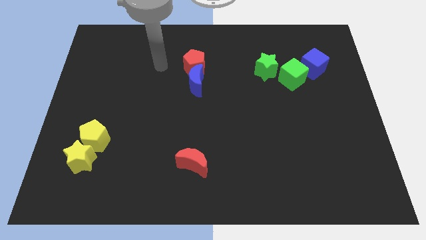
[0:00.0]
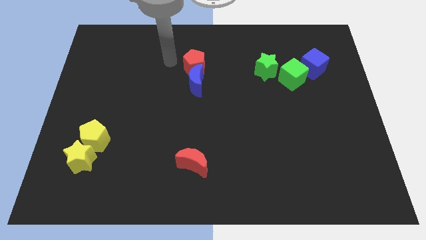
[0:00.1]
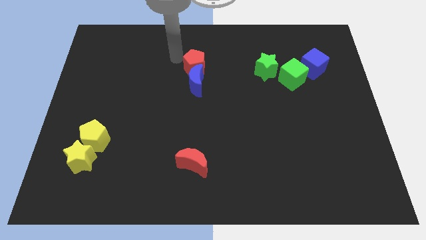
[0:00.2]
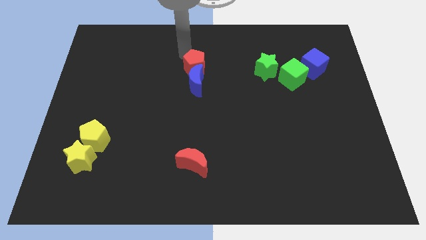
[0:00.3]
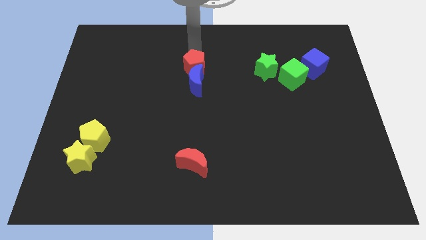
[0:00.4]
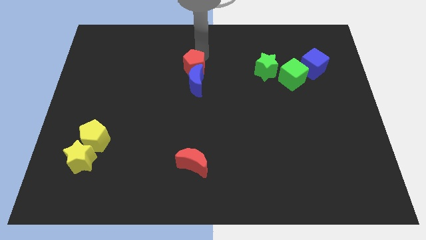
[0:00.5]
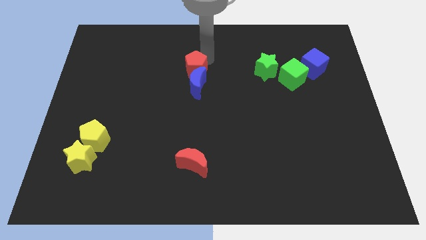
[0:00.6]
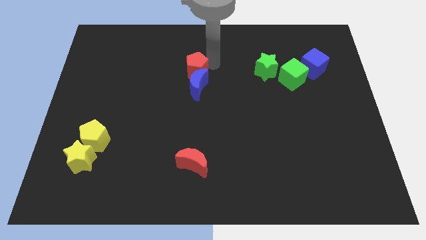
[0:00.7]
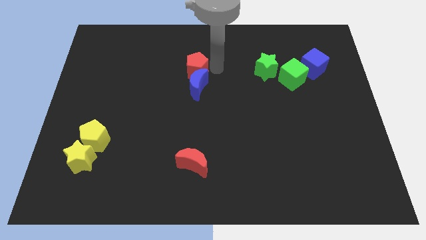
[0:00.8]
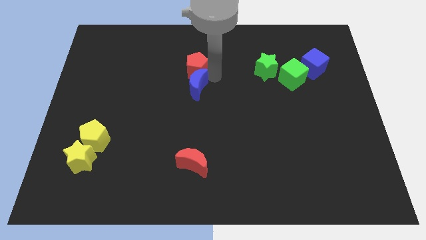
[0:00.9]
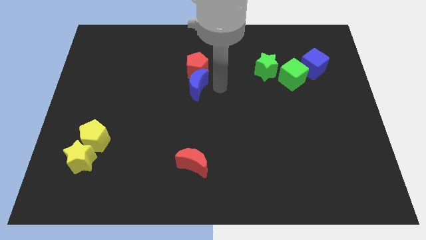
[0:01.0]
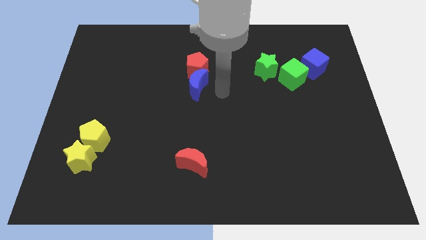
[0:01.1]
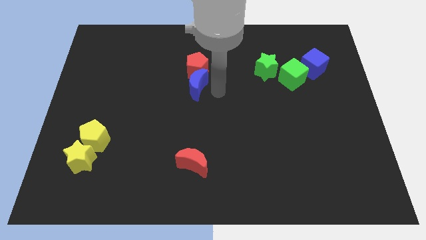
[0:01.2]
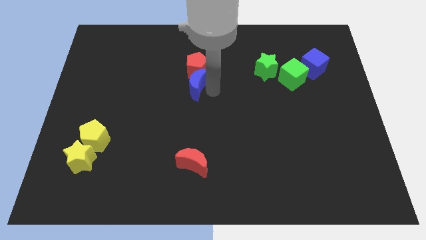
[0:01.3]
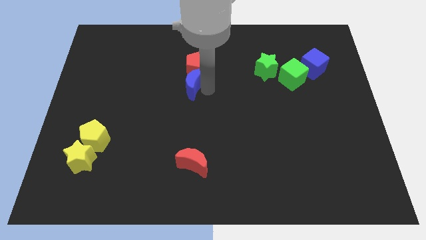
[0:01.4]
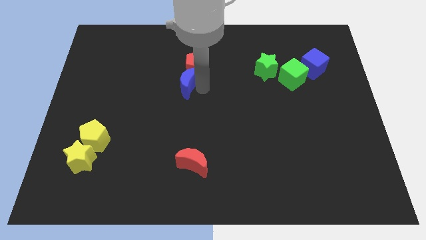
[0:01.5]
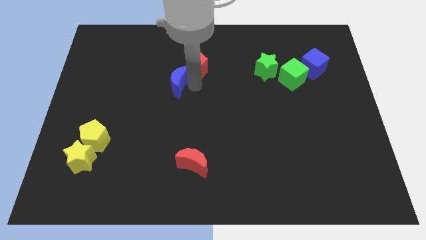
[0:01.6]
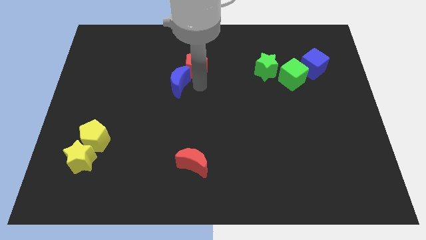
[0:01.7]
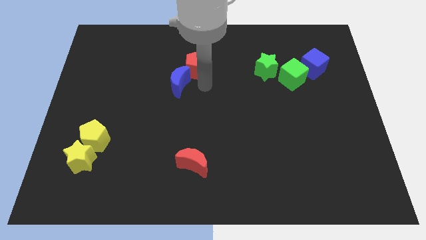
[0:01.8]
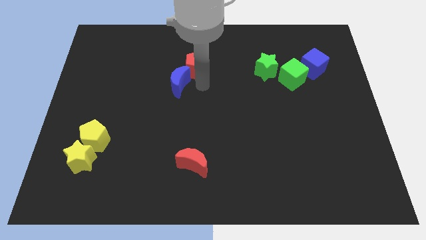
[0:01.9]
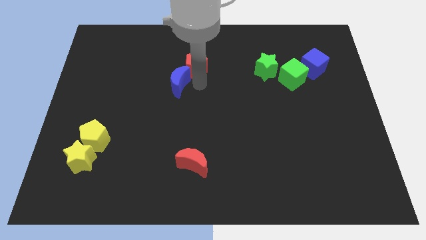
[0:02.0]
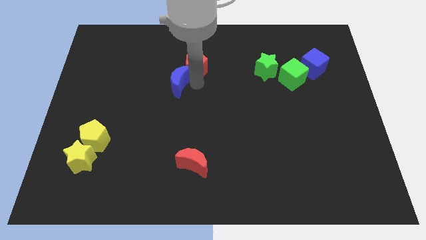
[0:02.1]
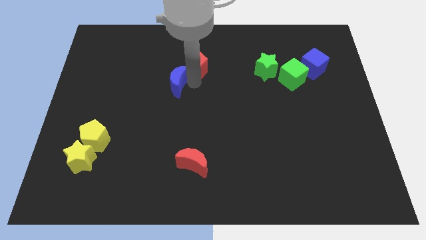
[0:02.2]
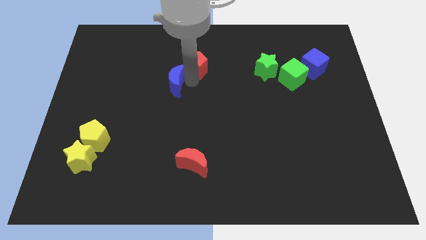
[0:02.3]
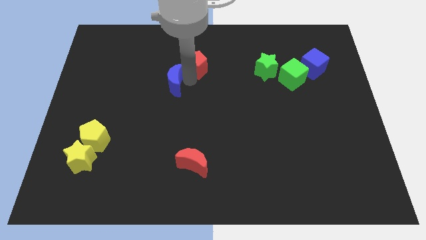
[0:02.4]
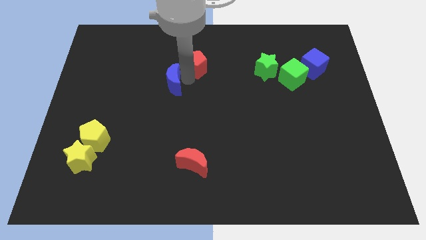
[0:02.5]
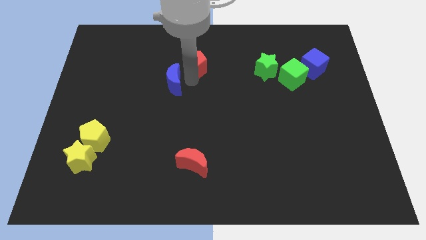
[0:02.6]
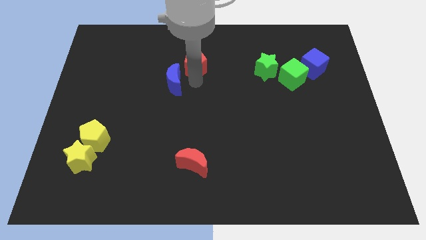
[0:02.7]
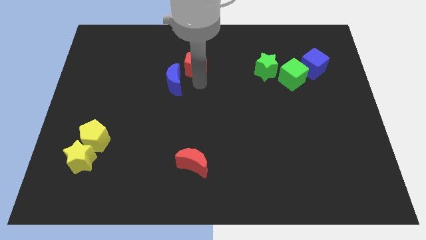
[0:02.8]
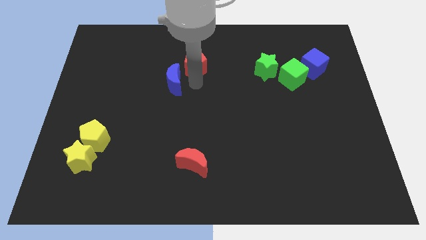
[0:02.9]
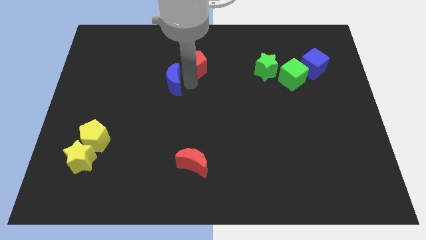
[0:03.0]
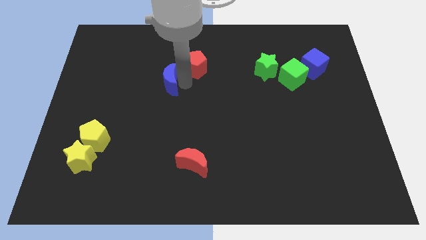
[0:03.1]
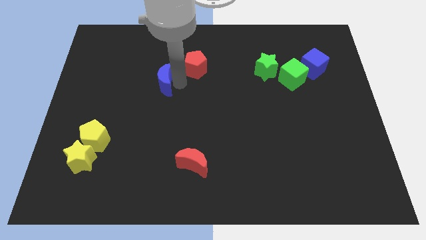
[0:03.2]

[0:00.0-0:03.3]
slide the blue moon left a bit

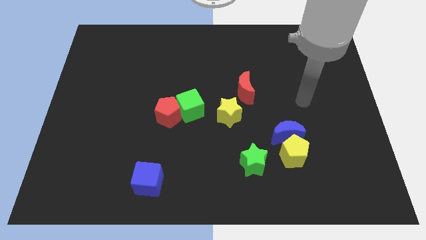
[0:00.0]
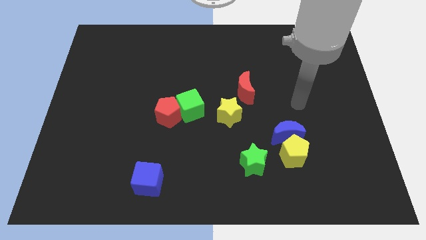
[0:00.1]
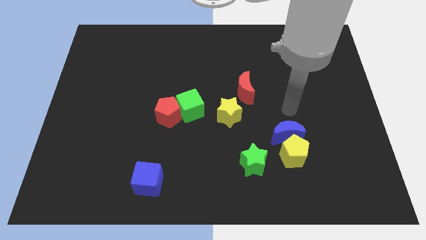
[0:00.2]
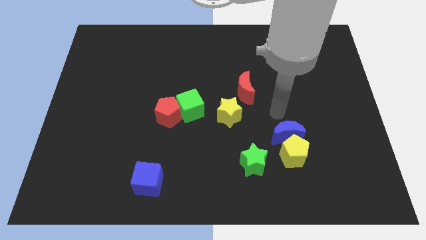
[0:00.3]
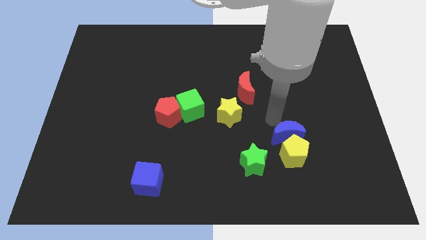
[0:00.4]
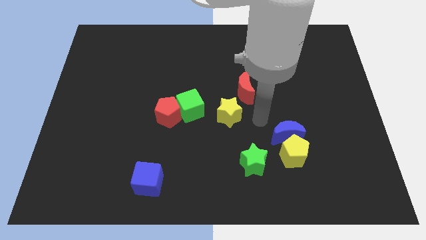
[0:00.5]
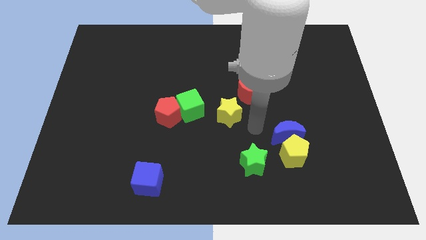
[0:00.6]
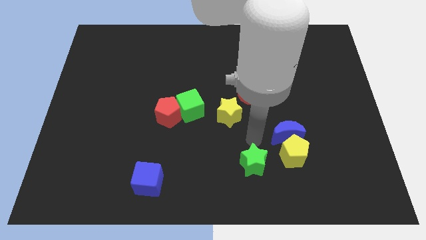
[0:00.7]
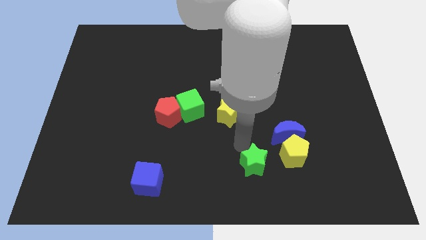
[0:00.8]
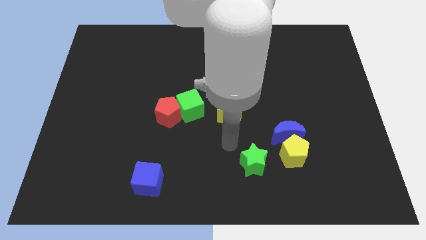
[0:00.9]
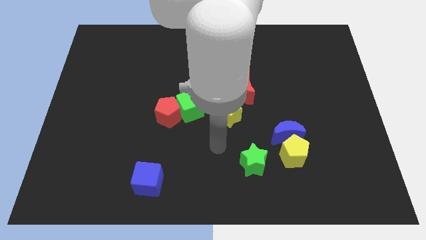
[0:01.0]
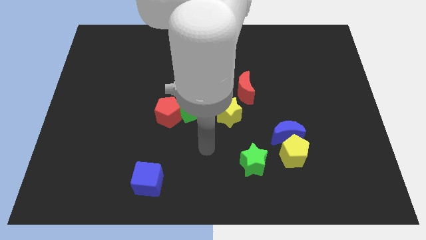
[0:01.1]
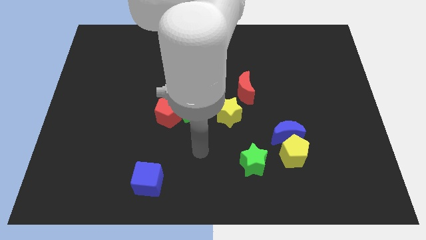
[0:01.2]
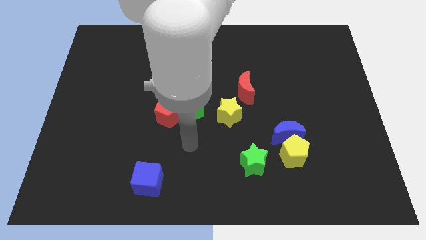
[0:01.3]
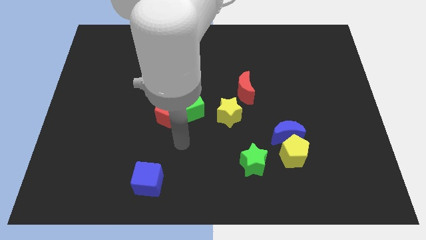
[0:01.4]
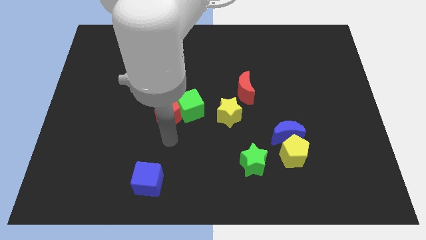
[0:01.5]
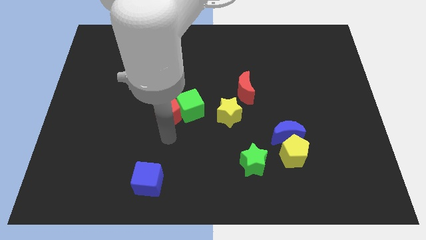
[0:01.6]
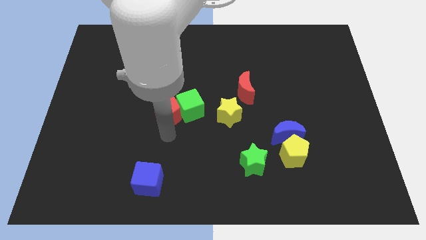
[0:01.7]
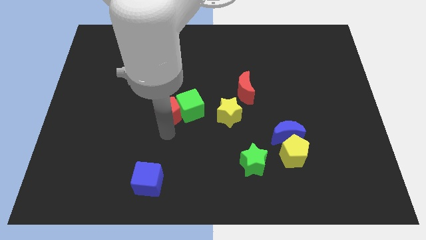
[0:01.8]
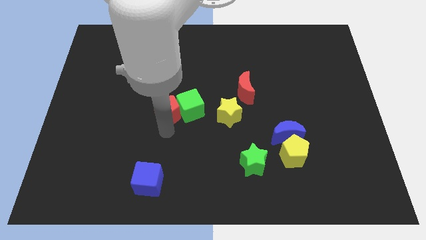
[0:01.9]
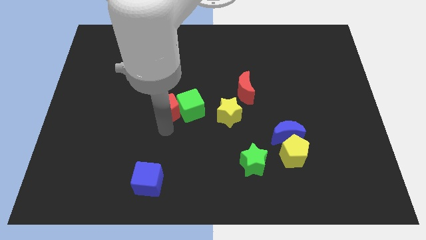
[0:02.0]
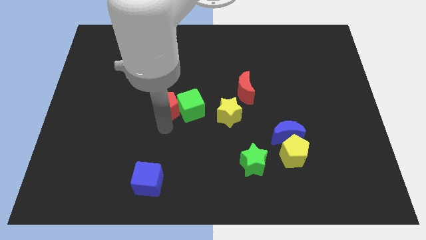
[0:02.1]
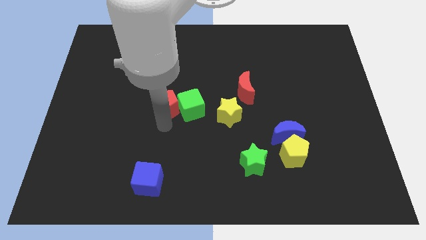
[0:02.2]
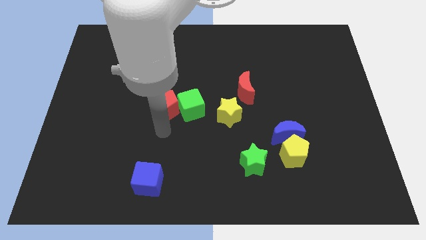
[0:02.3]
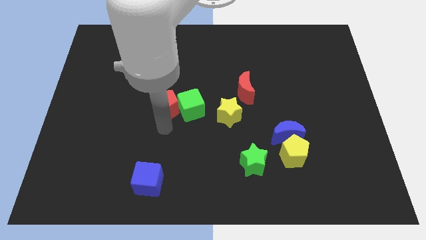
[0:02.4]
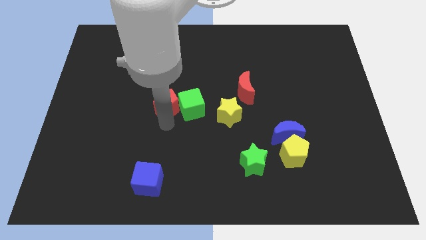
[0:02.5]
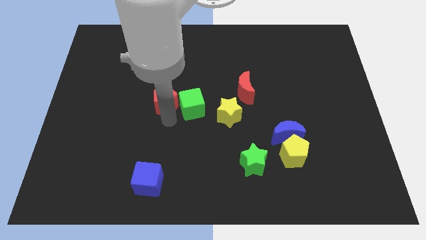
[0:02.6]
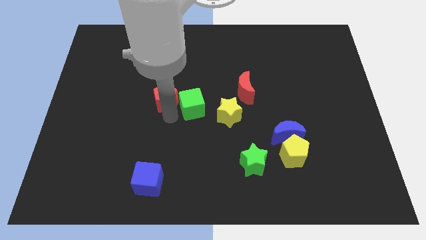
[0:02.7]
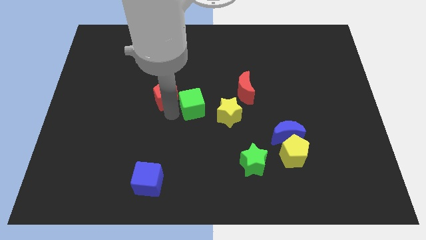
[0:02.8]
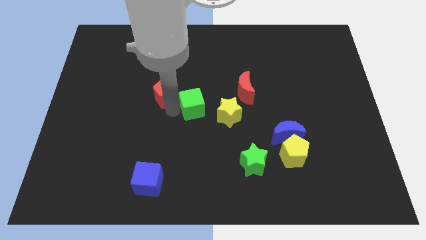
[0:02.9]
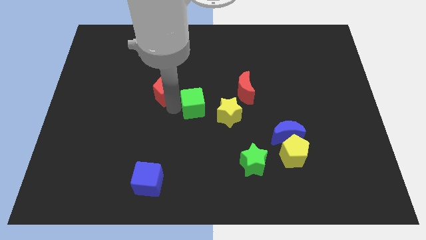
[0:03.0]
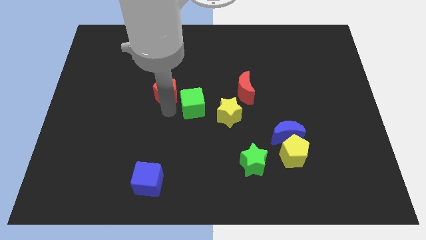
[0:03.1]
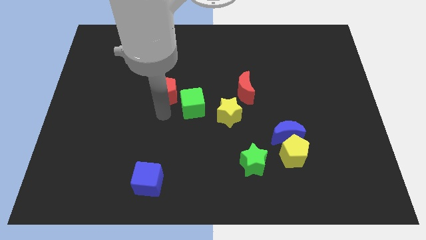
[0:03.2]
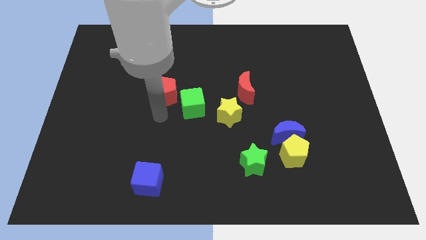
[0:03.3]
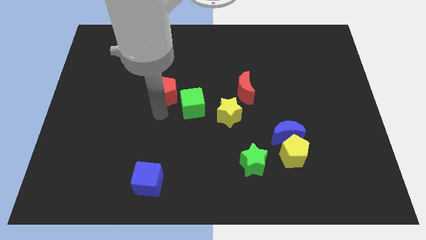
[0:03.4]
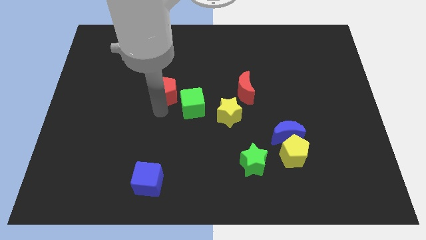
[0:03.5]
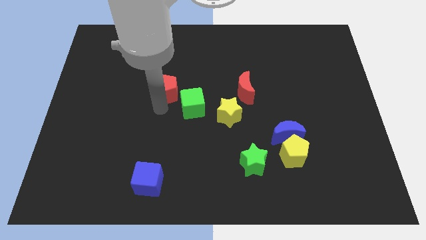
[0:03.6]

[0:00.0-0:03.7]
move the red pentagon upwards a little

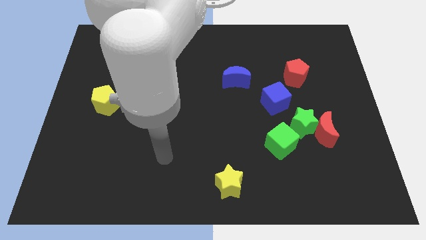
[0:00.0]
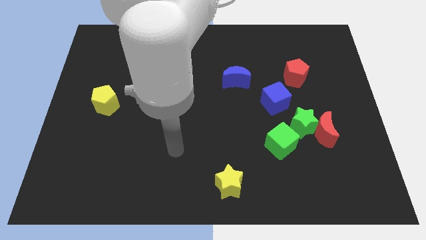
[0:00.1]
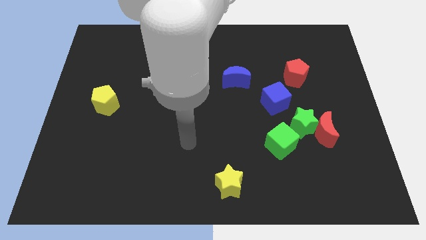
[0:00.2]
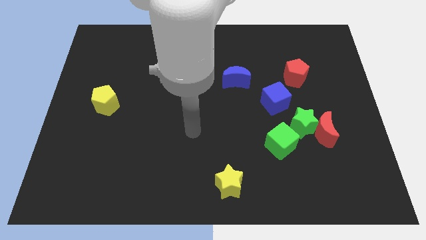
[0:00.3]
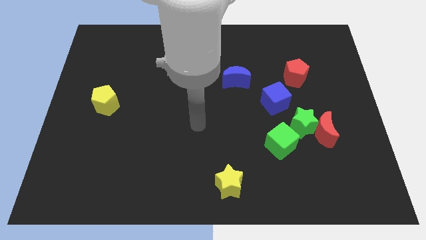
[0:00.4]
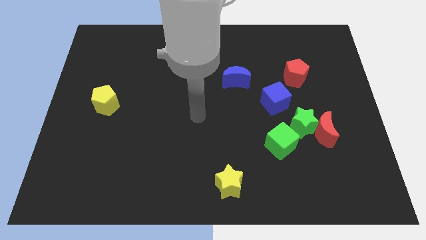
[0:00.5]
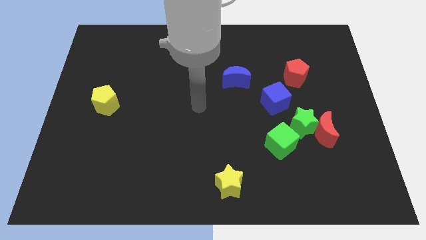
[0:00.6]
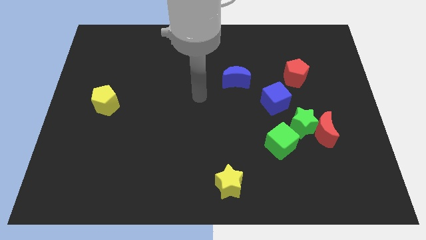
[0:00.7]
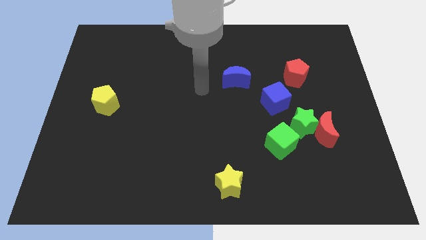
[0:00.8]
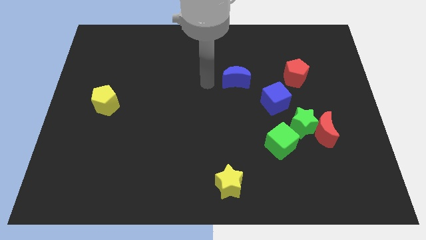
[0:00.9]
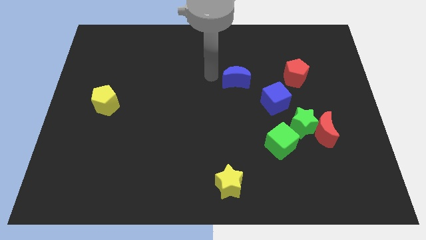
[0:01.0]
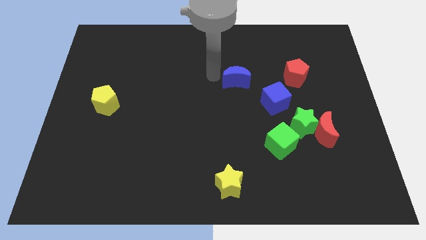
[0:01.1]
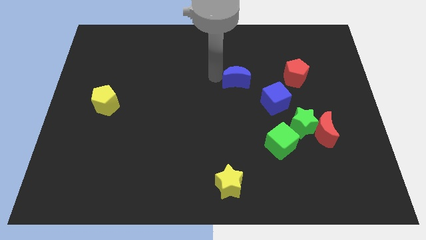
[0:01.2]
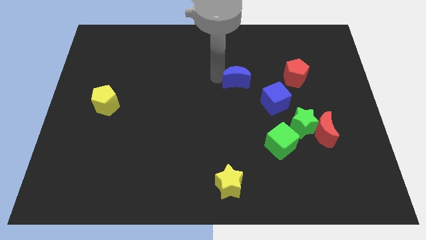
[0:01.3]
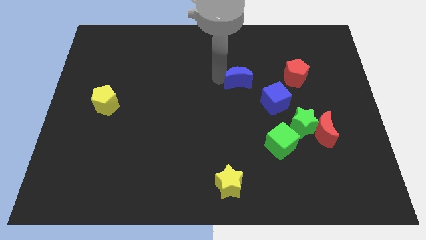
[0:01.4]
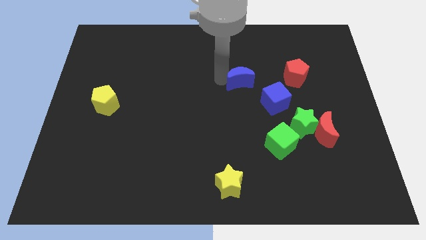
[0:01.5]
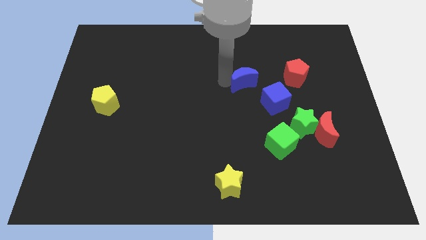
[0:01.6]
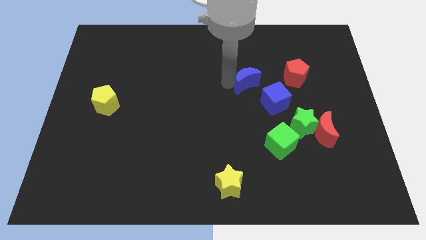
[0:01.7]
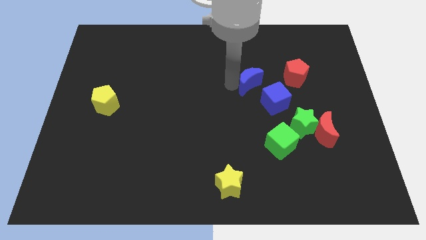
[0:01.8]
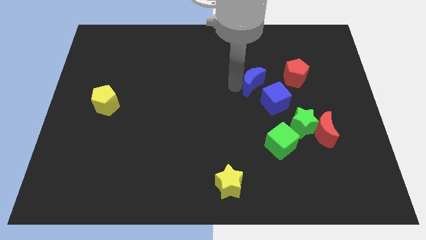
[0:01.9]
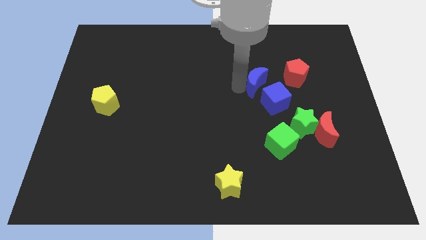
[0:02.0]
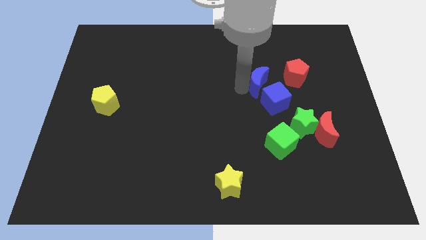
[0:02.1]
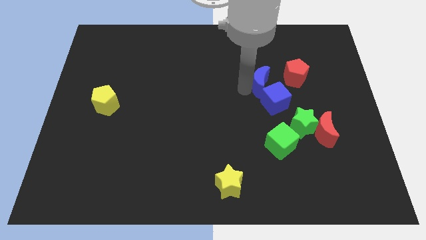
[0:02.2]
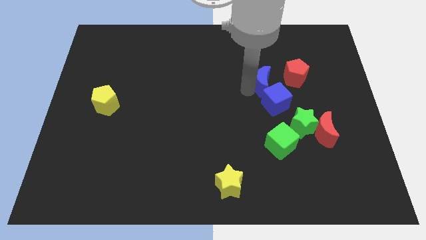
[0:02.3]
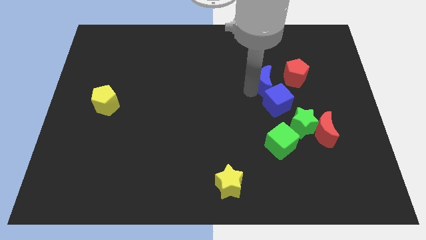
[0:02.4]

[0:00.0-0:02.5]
move the blue moon a bit right
